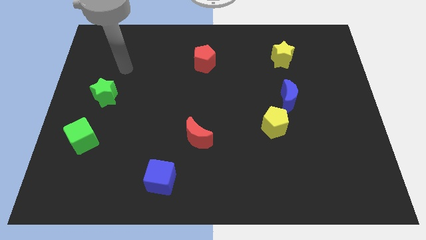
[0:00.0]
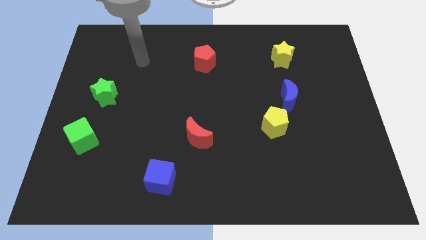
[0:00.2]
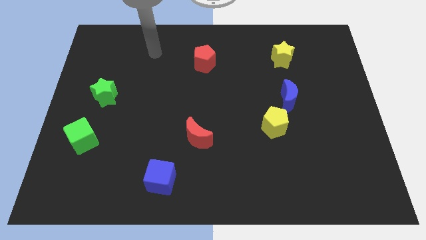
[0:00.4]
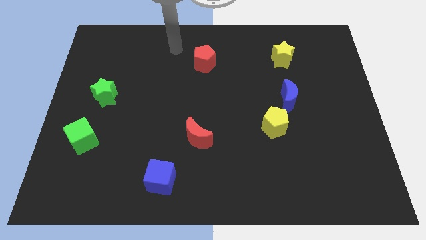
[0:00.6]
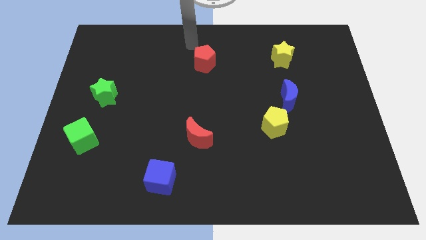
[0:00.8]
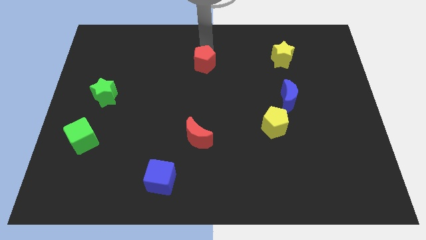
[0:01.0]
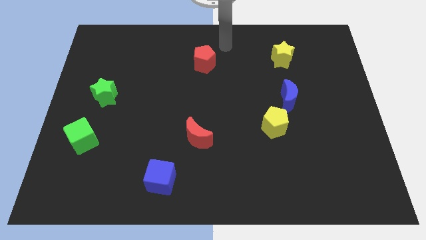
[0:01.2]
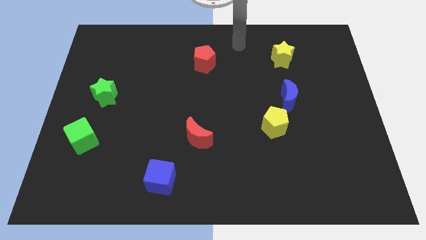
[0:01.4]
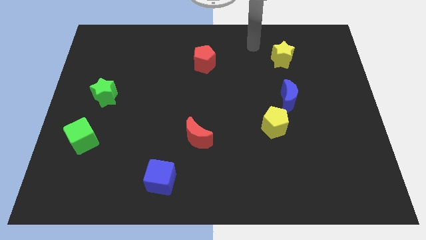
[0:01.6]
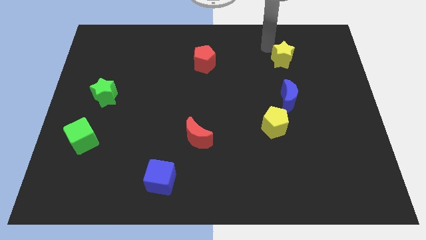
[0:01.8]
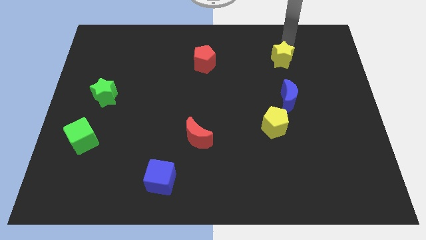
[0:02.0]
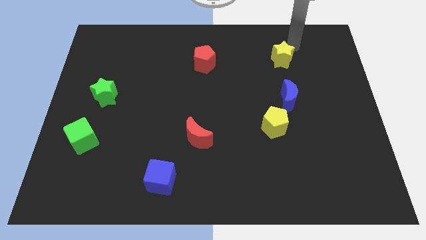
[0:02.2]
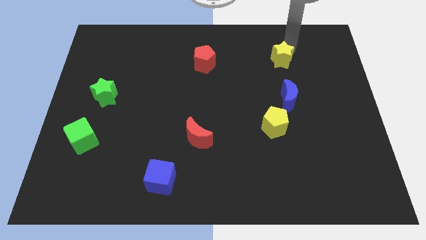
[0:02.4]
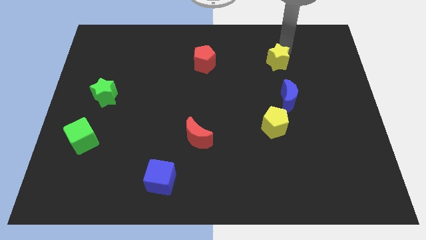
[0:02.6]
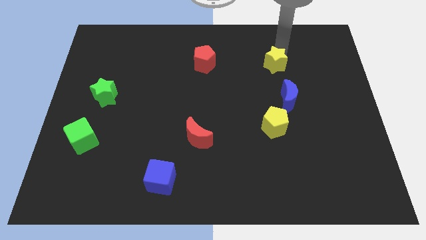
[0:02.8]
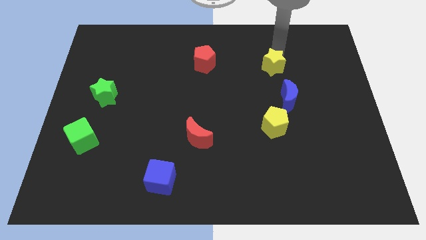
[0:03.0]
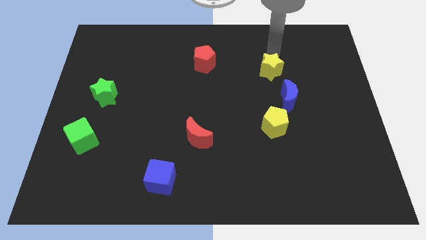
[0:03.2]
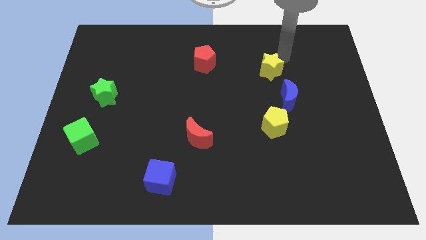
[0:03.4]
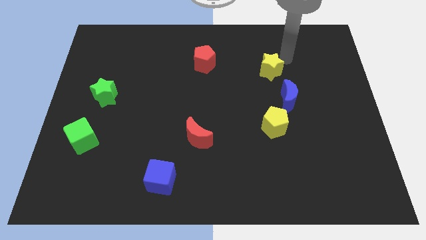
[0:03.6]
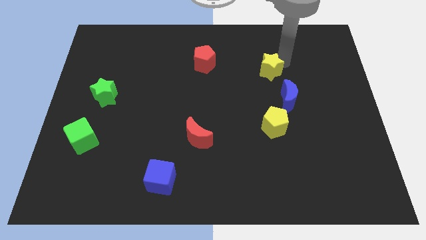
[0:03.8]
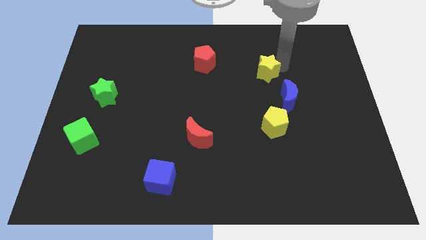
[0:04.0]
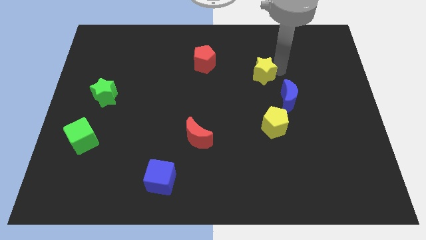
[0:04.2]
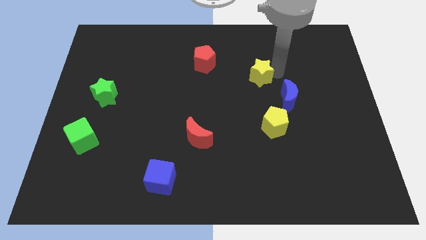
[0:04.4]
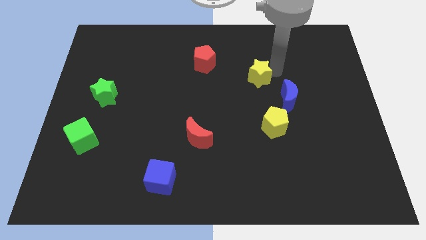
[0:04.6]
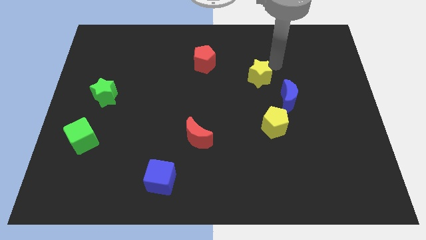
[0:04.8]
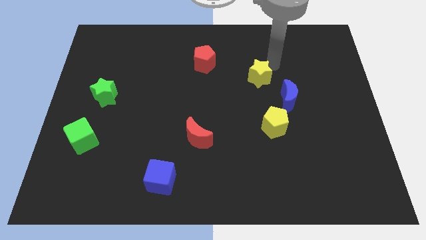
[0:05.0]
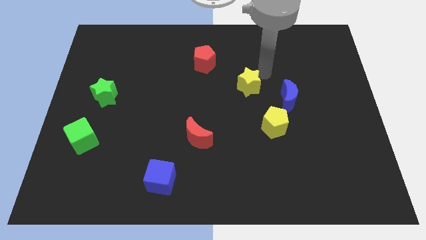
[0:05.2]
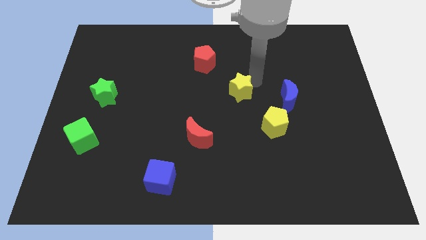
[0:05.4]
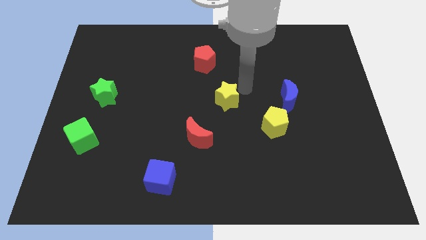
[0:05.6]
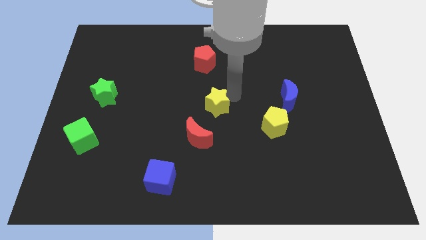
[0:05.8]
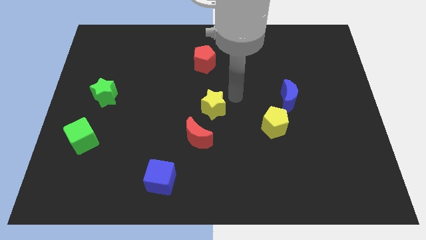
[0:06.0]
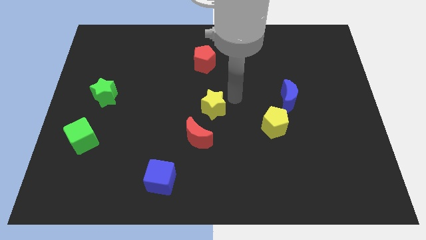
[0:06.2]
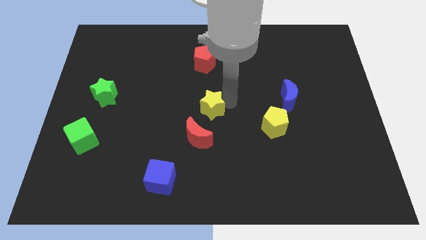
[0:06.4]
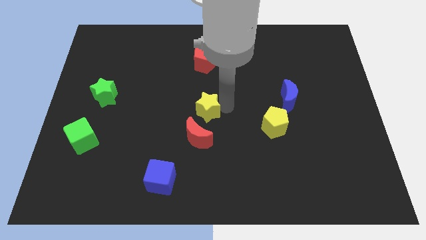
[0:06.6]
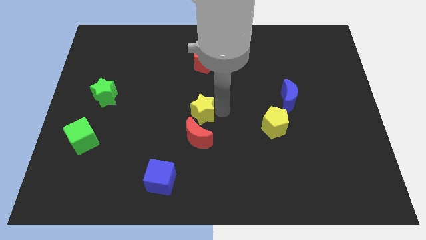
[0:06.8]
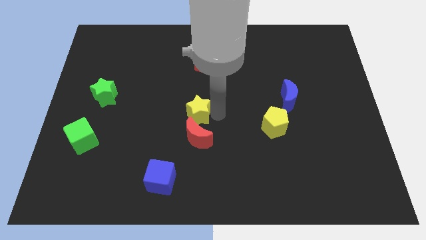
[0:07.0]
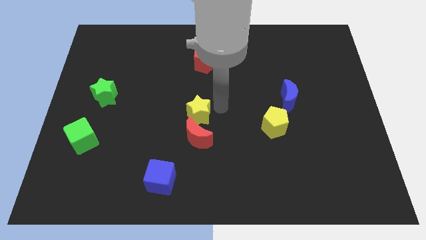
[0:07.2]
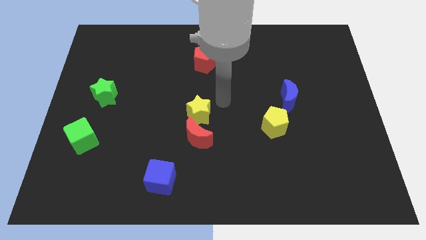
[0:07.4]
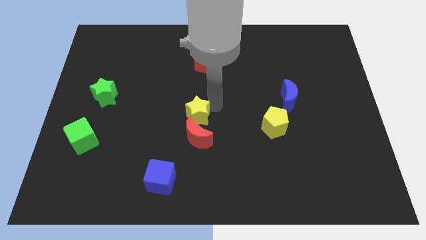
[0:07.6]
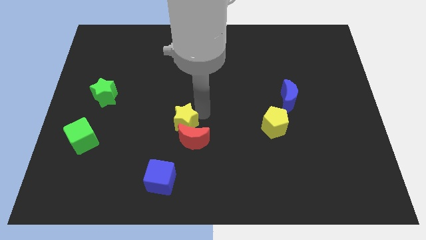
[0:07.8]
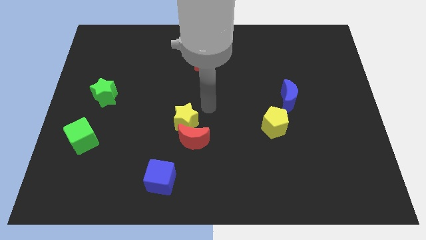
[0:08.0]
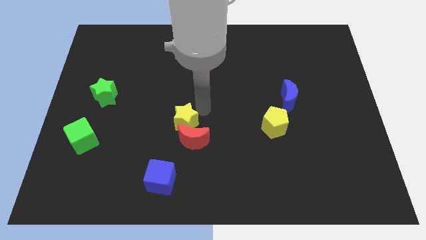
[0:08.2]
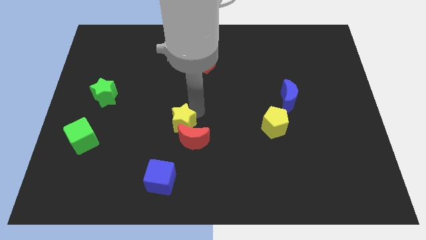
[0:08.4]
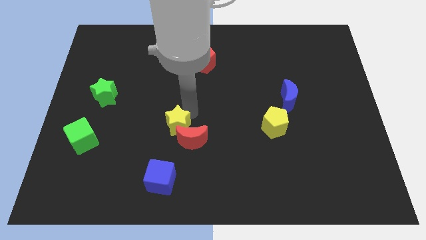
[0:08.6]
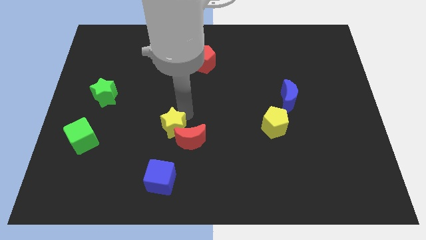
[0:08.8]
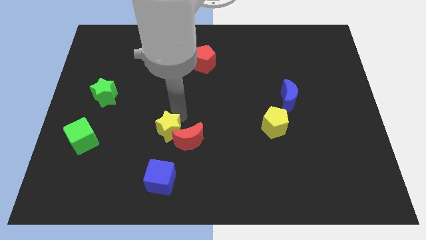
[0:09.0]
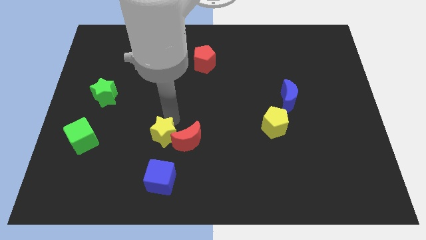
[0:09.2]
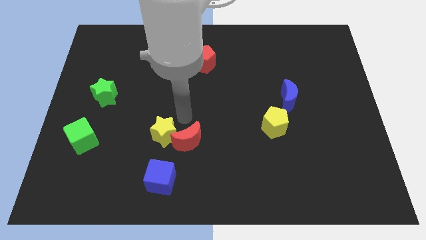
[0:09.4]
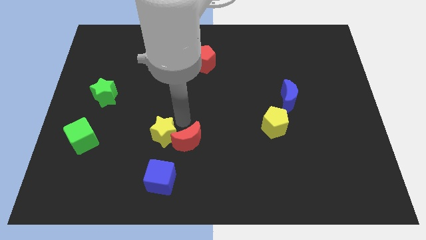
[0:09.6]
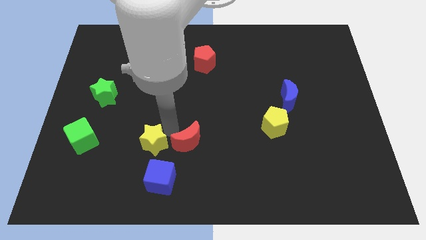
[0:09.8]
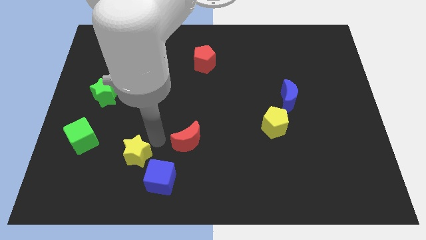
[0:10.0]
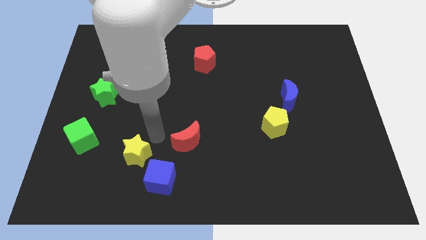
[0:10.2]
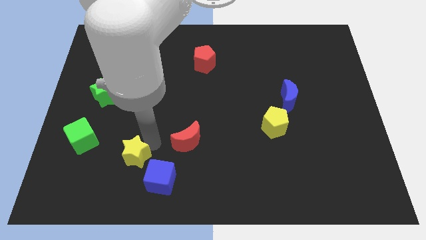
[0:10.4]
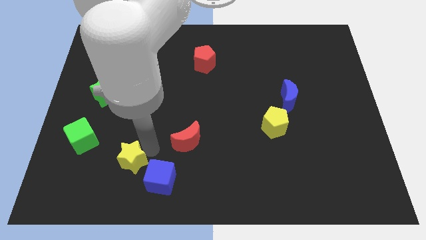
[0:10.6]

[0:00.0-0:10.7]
put the yellow star to the left side of the blue cube

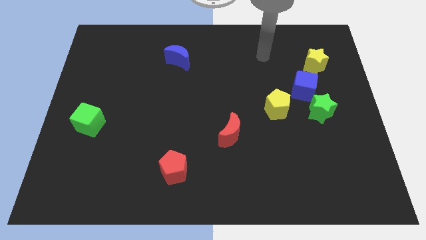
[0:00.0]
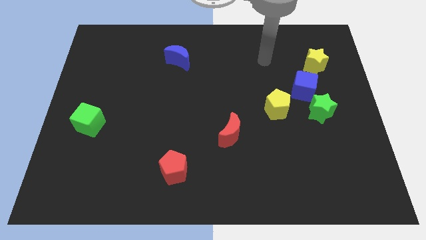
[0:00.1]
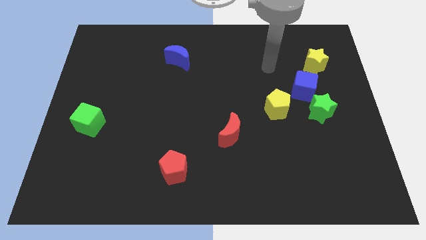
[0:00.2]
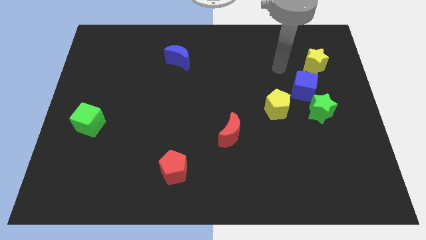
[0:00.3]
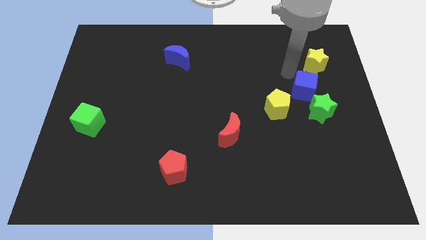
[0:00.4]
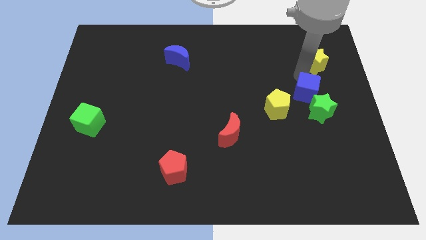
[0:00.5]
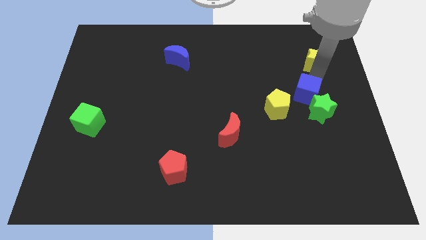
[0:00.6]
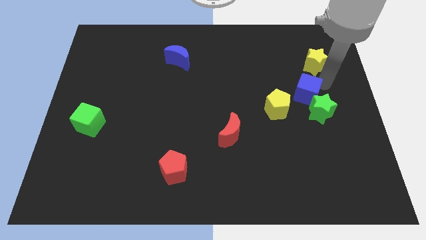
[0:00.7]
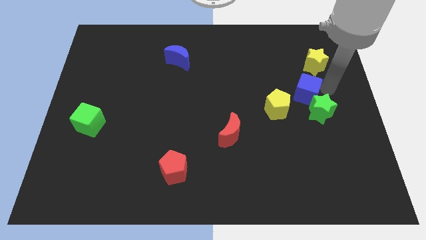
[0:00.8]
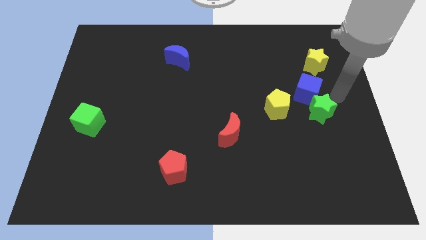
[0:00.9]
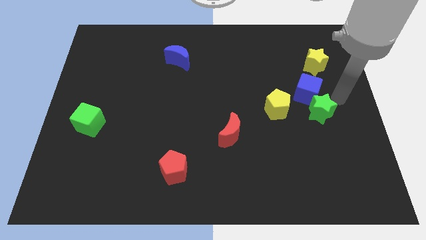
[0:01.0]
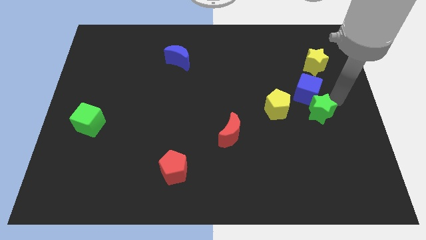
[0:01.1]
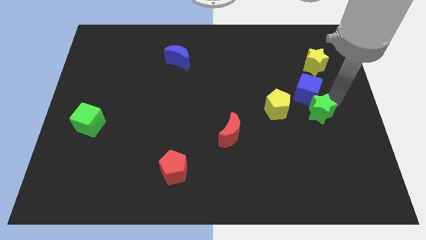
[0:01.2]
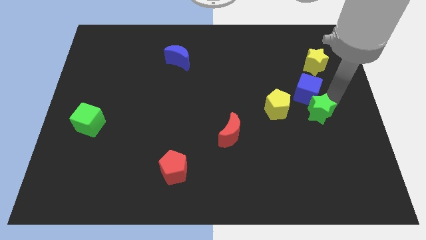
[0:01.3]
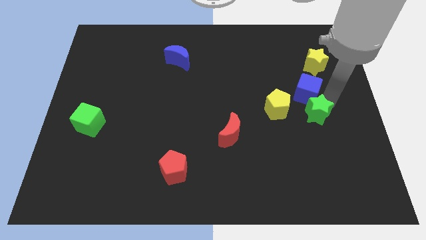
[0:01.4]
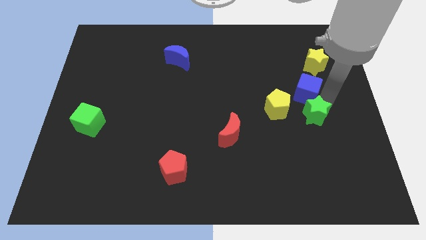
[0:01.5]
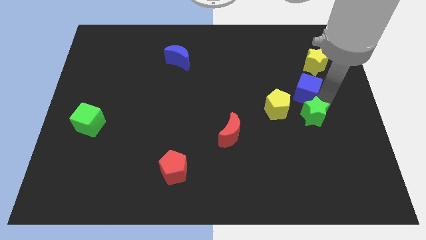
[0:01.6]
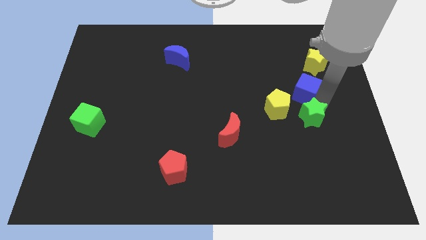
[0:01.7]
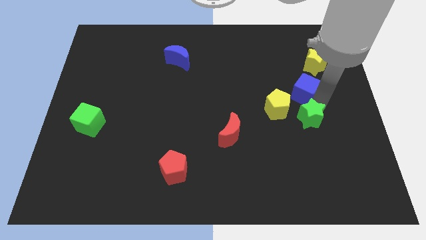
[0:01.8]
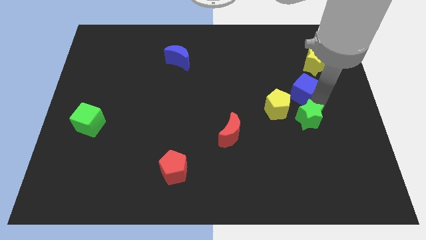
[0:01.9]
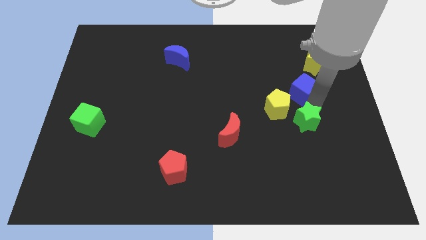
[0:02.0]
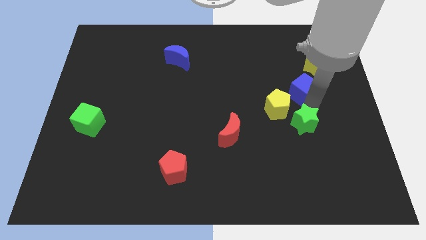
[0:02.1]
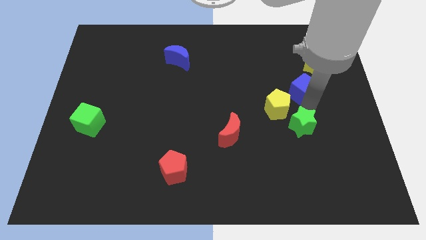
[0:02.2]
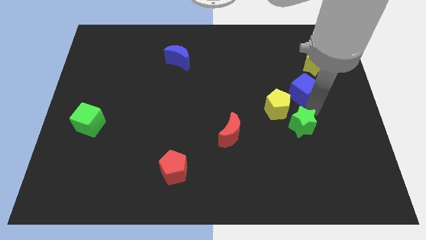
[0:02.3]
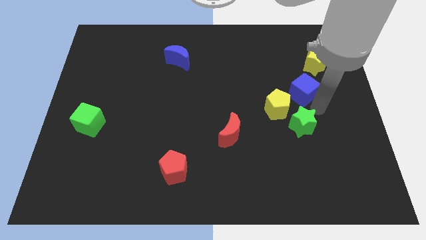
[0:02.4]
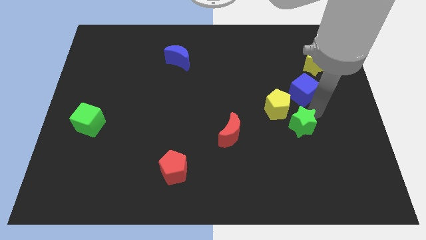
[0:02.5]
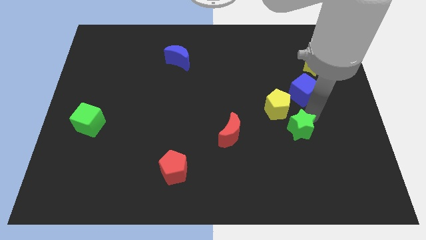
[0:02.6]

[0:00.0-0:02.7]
move the green star to the bottom of the yellow pentagon
